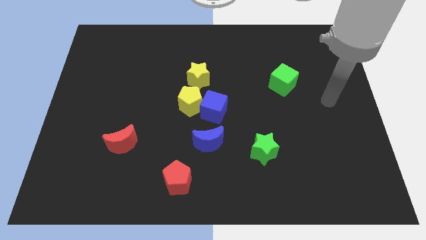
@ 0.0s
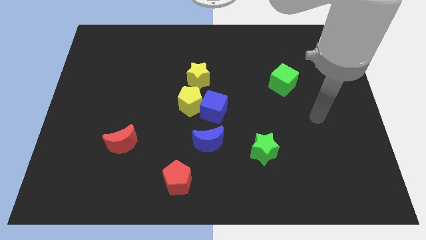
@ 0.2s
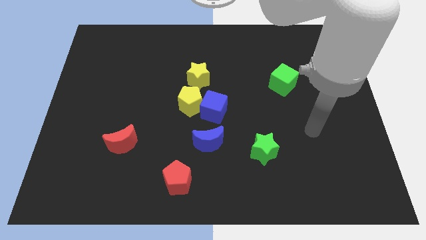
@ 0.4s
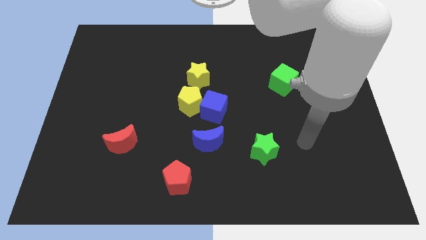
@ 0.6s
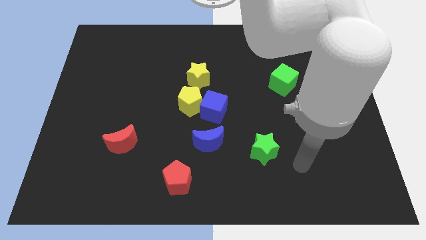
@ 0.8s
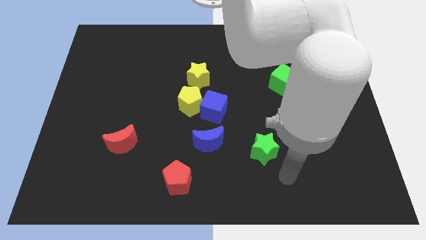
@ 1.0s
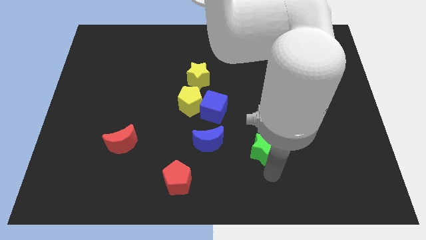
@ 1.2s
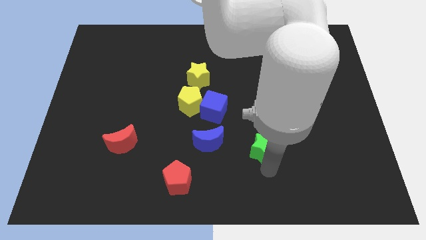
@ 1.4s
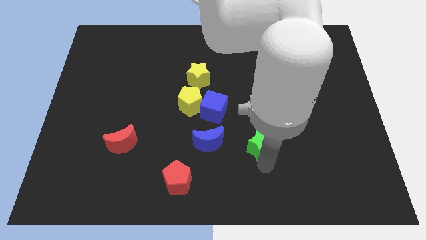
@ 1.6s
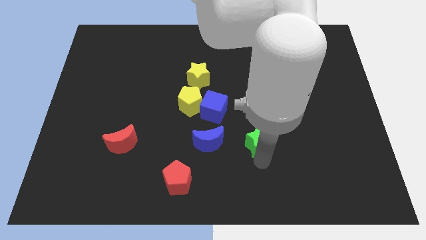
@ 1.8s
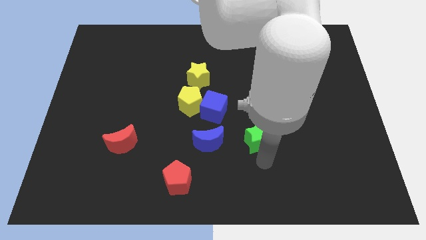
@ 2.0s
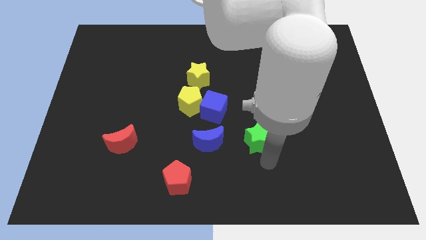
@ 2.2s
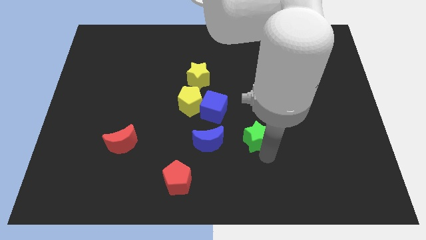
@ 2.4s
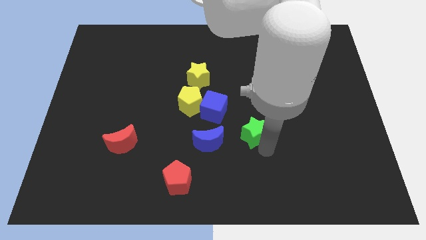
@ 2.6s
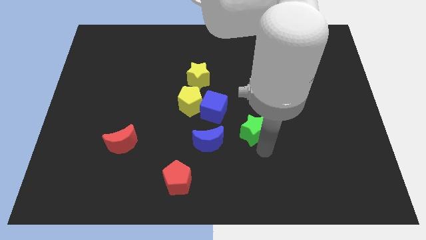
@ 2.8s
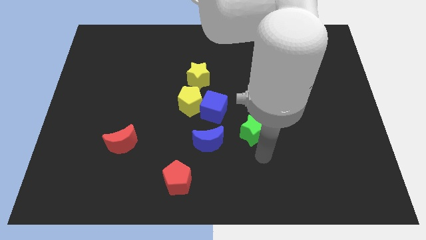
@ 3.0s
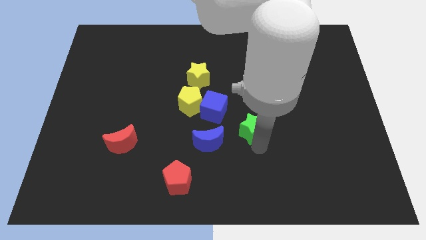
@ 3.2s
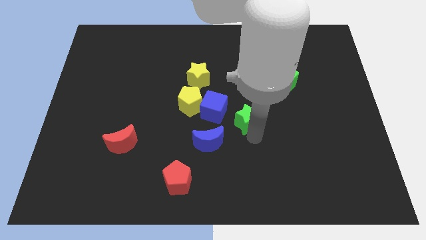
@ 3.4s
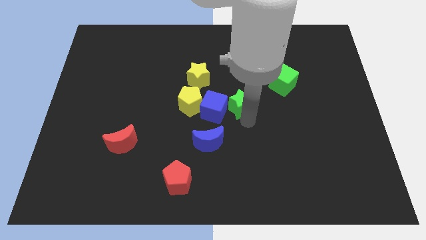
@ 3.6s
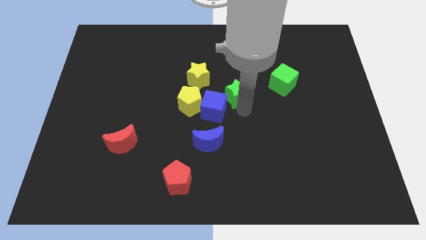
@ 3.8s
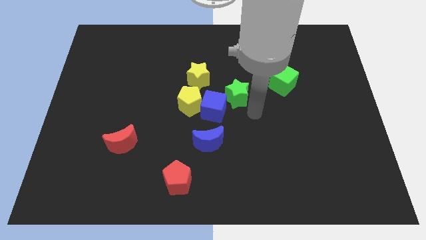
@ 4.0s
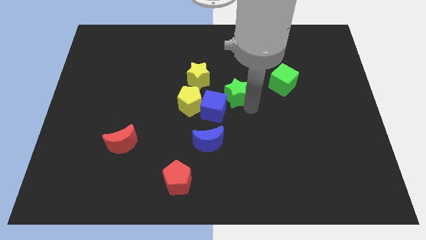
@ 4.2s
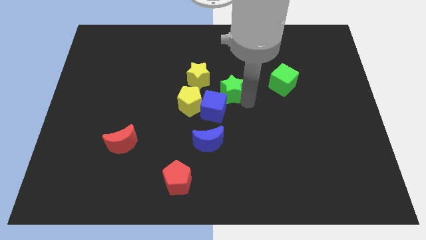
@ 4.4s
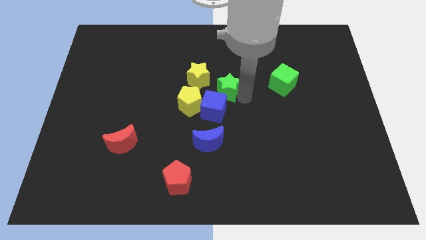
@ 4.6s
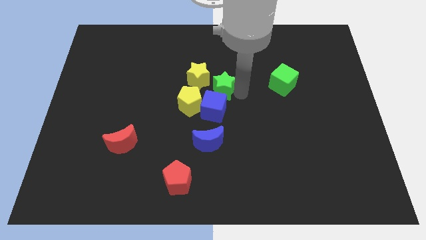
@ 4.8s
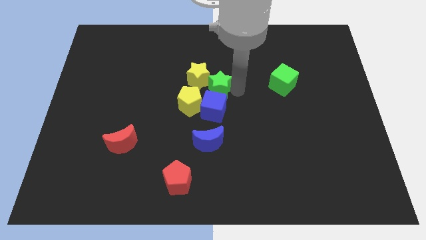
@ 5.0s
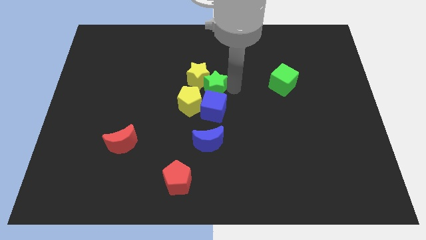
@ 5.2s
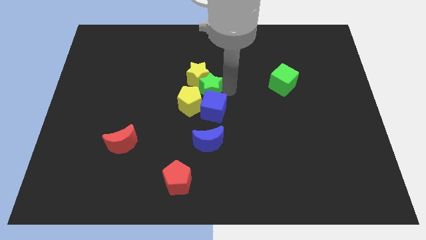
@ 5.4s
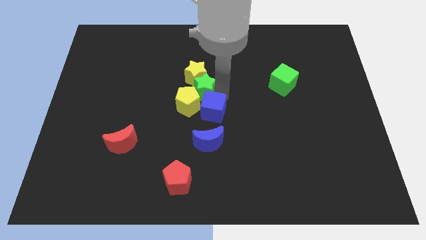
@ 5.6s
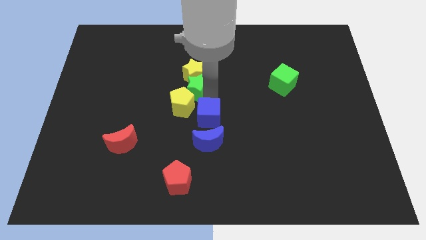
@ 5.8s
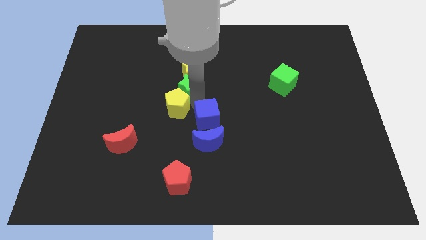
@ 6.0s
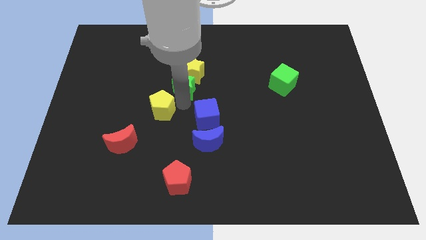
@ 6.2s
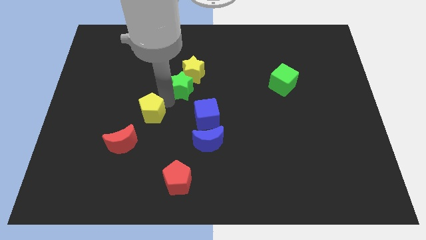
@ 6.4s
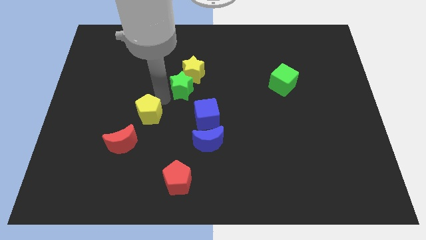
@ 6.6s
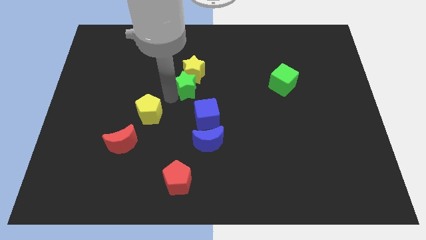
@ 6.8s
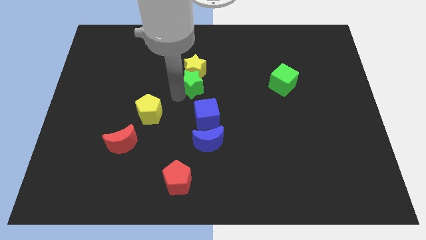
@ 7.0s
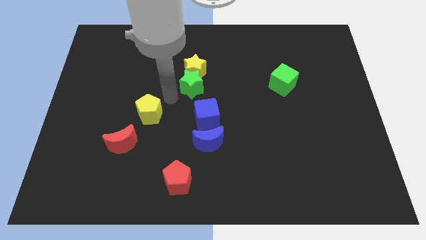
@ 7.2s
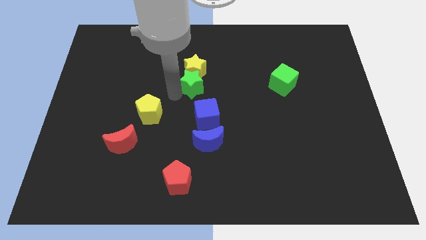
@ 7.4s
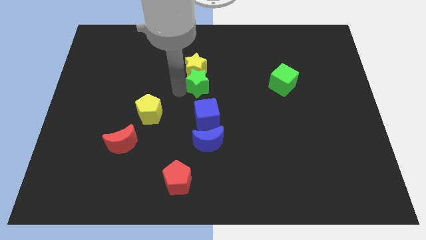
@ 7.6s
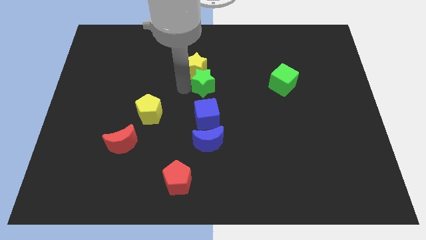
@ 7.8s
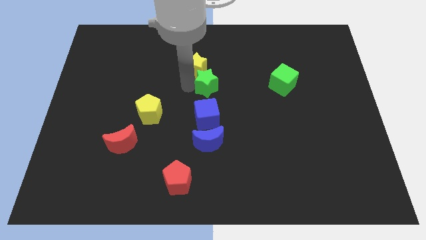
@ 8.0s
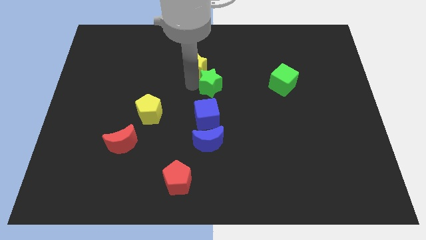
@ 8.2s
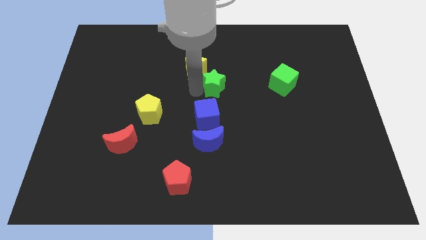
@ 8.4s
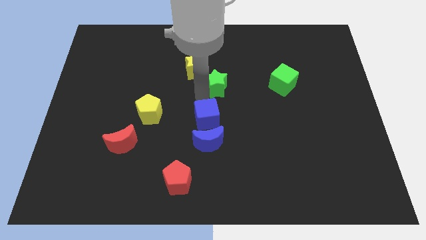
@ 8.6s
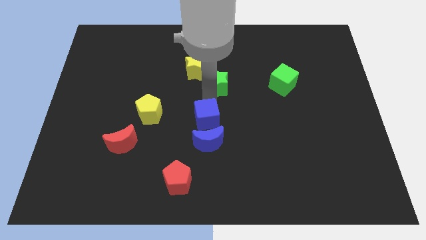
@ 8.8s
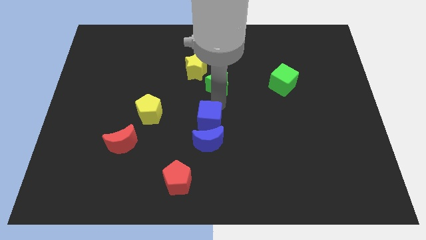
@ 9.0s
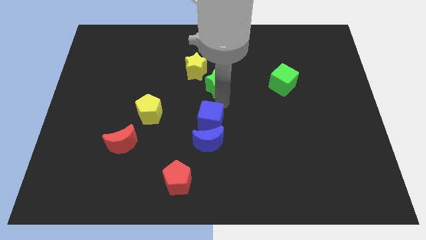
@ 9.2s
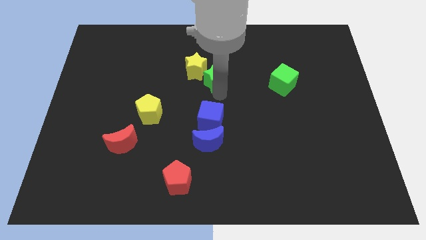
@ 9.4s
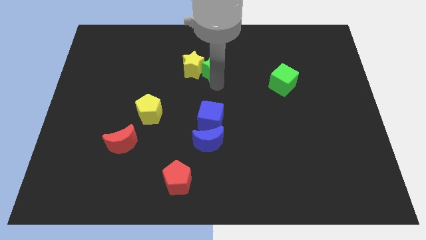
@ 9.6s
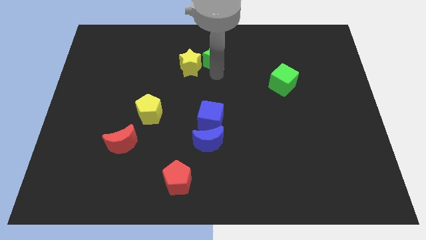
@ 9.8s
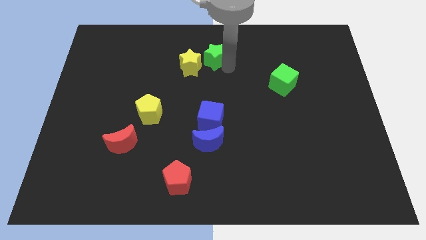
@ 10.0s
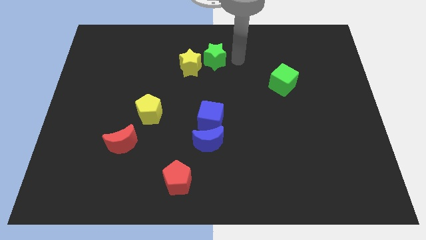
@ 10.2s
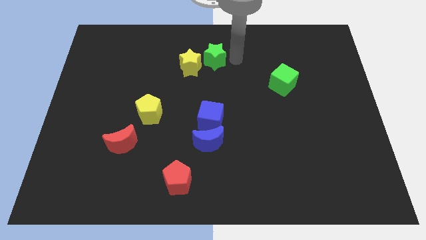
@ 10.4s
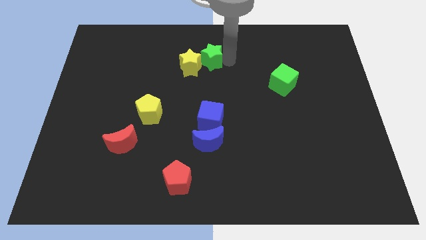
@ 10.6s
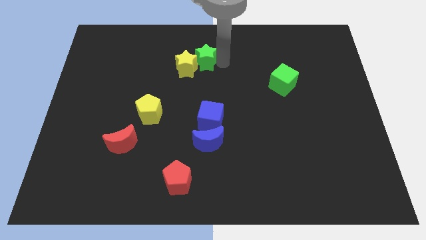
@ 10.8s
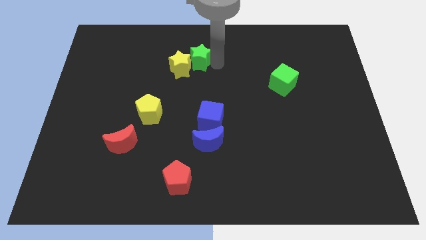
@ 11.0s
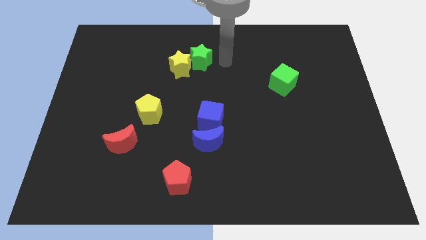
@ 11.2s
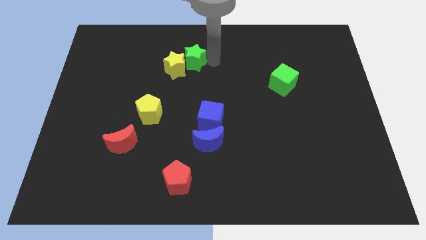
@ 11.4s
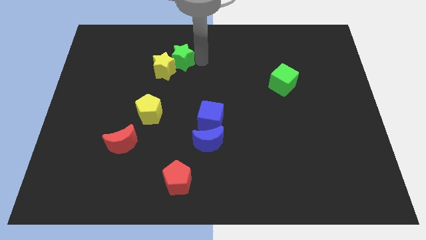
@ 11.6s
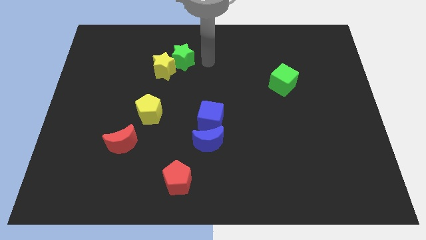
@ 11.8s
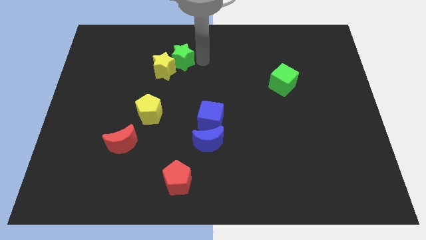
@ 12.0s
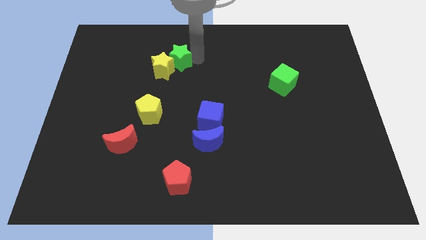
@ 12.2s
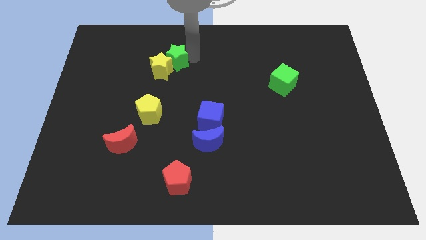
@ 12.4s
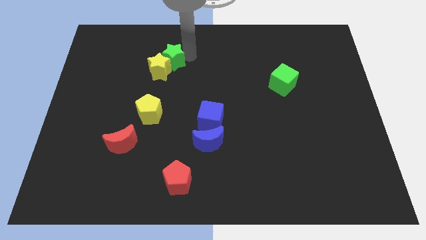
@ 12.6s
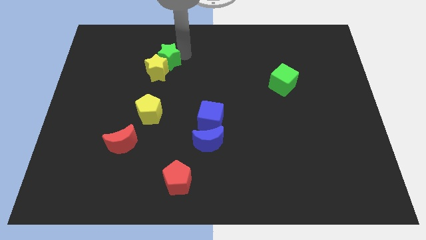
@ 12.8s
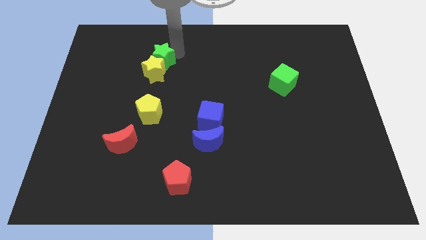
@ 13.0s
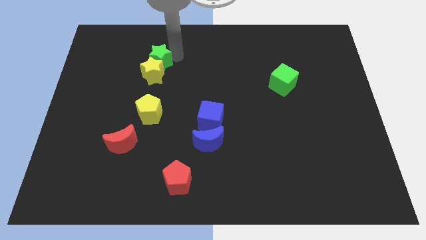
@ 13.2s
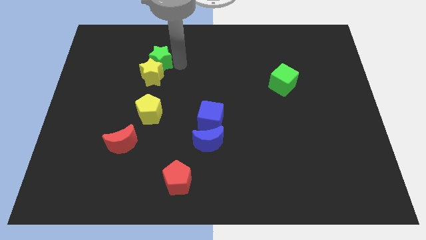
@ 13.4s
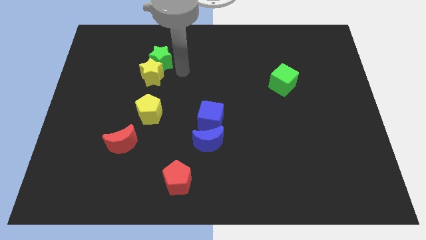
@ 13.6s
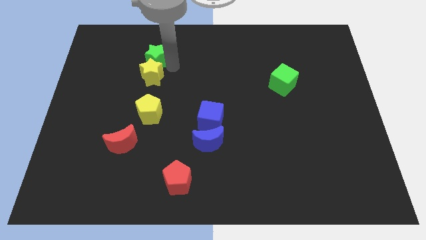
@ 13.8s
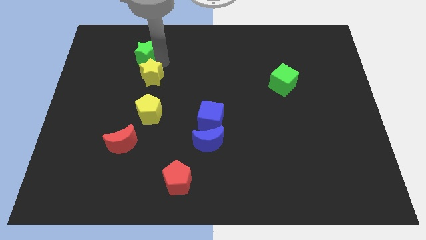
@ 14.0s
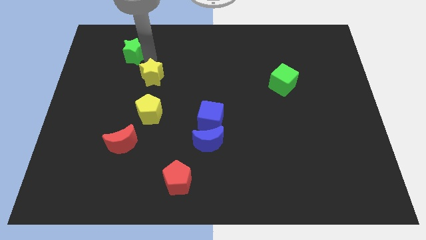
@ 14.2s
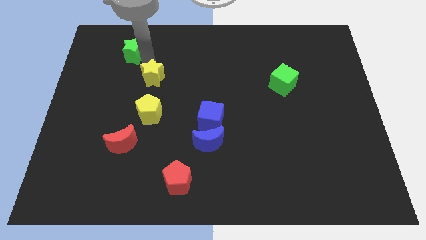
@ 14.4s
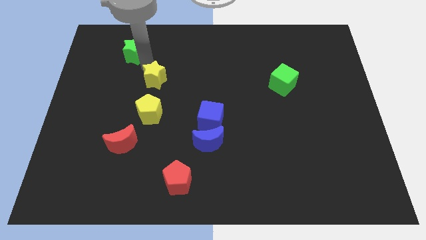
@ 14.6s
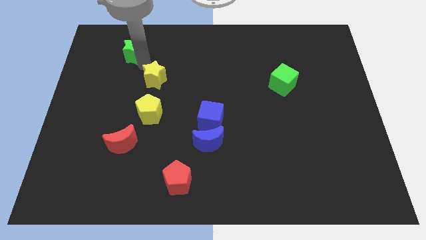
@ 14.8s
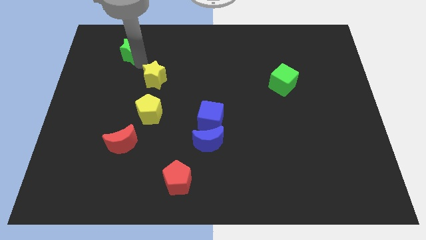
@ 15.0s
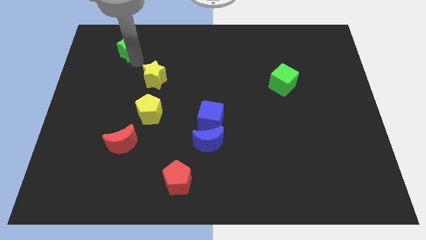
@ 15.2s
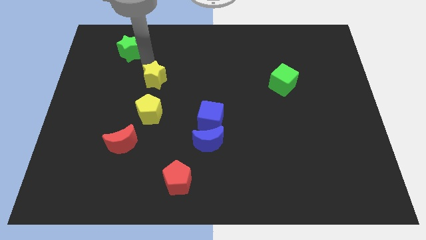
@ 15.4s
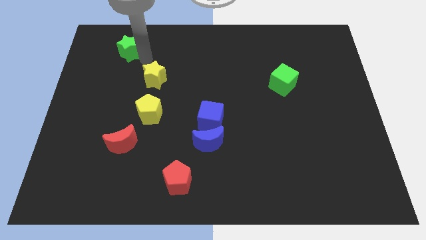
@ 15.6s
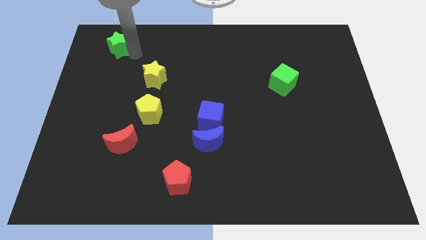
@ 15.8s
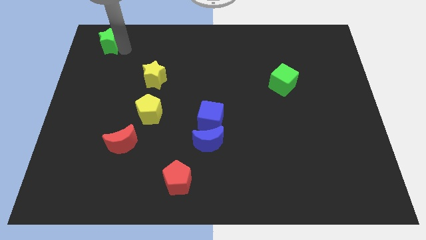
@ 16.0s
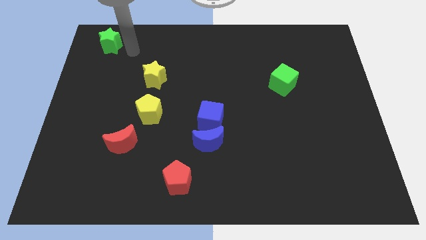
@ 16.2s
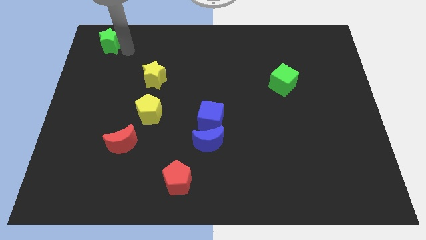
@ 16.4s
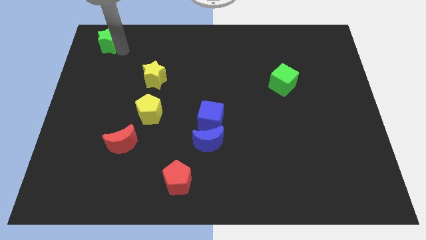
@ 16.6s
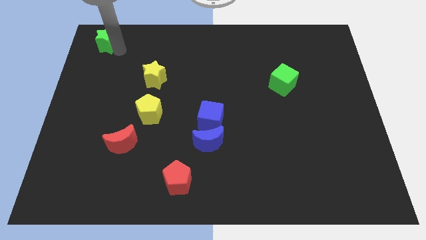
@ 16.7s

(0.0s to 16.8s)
put the green star to the top left corner
